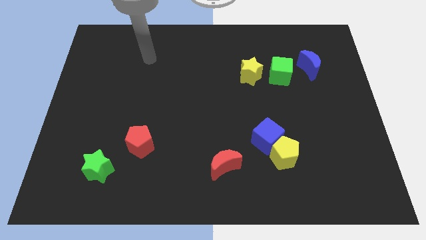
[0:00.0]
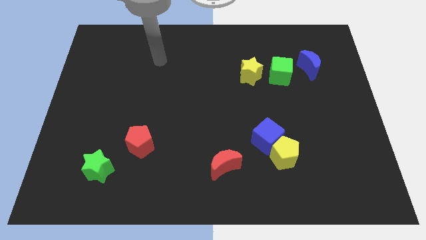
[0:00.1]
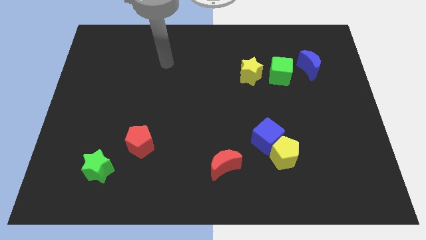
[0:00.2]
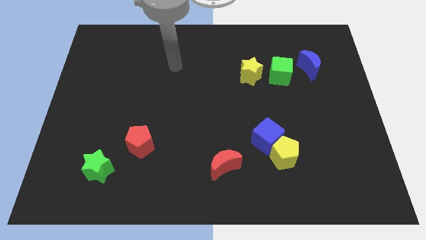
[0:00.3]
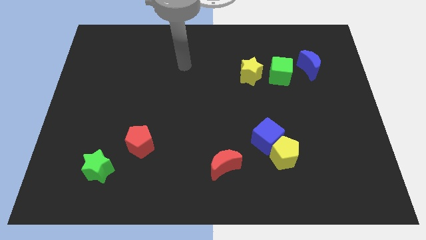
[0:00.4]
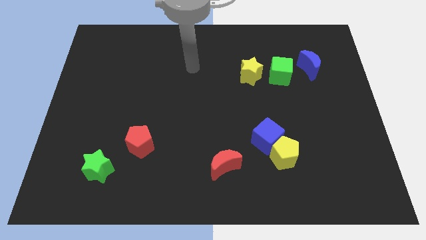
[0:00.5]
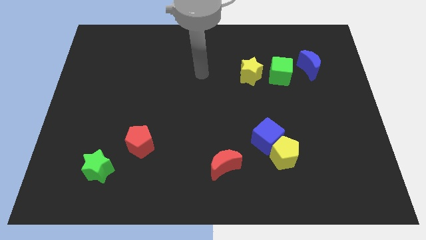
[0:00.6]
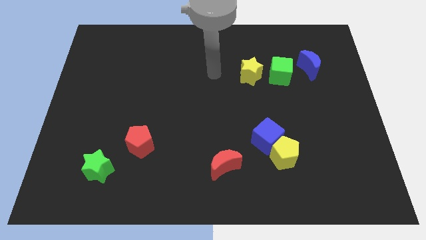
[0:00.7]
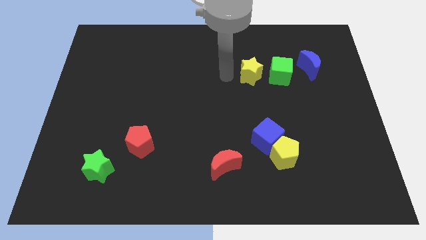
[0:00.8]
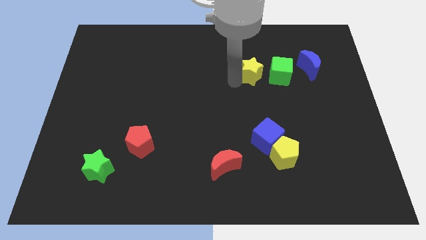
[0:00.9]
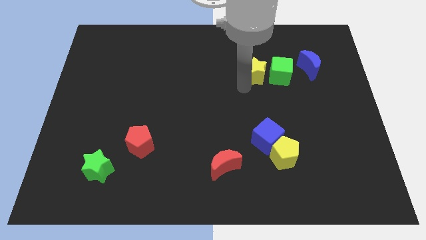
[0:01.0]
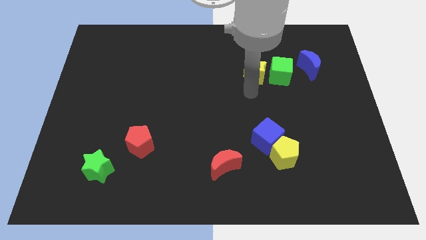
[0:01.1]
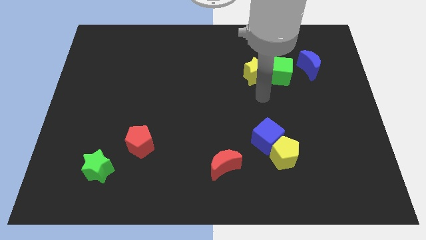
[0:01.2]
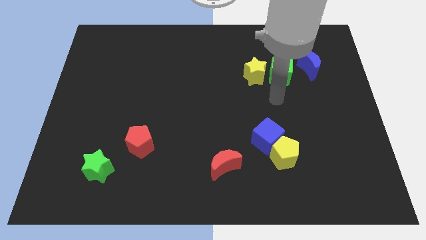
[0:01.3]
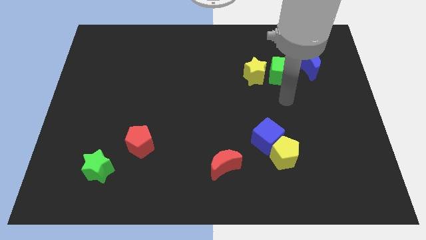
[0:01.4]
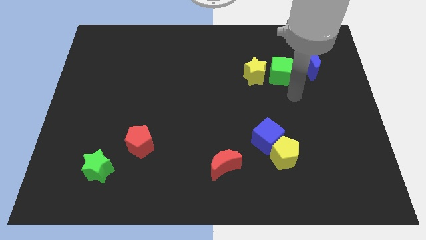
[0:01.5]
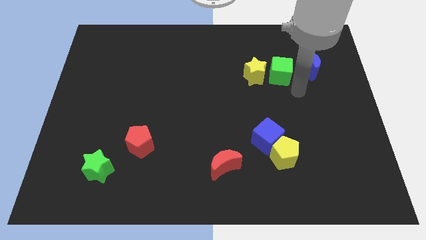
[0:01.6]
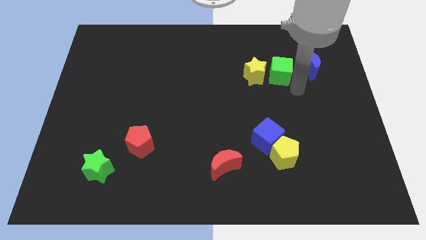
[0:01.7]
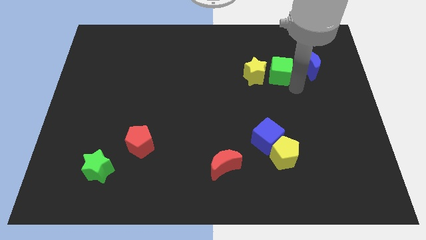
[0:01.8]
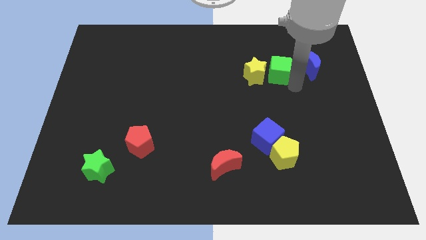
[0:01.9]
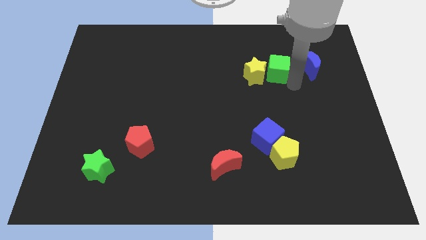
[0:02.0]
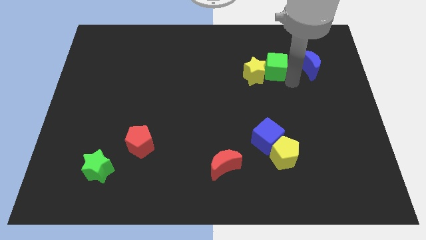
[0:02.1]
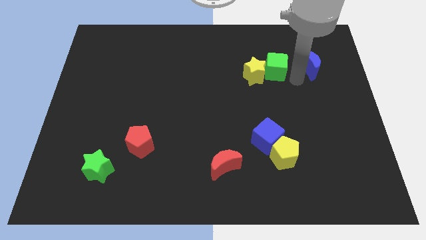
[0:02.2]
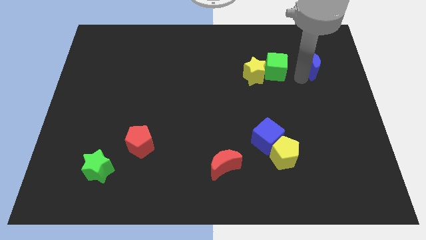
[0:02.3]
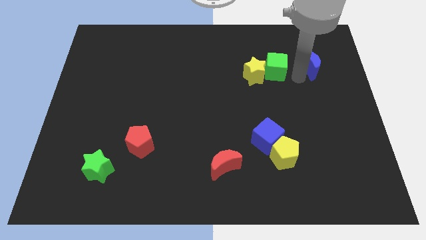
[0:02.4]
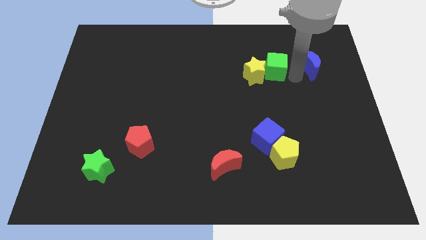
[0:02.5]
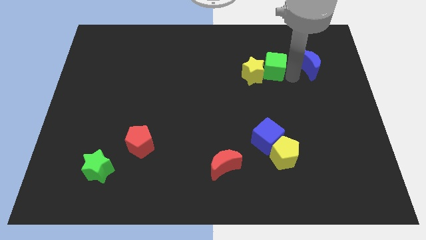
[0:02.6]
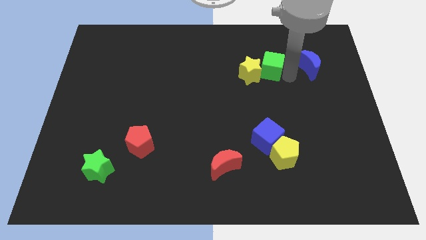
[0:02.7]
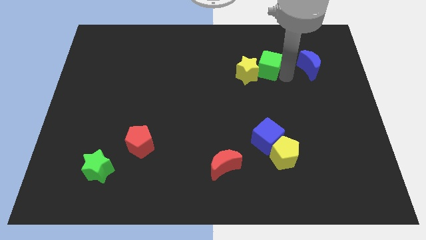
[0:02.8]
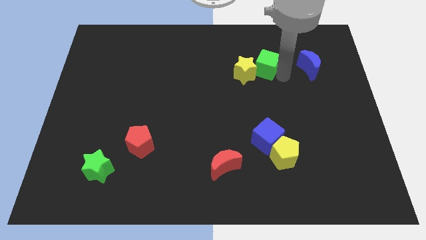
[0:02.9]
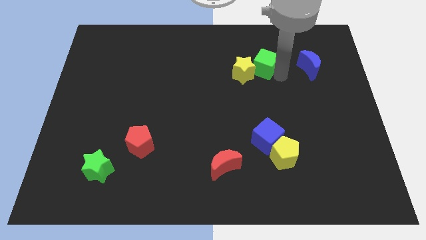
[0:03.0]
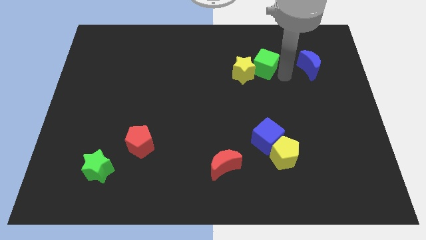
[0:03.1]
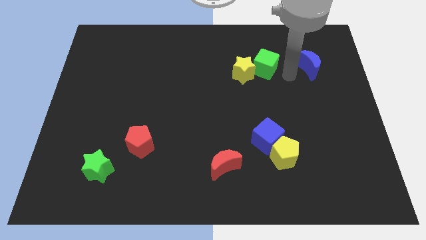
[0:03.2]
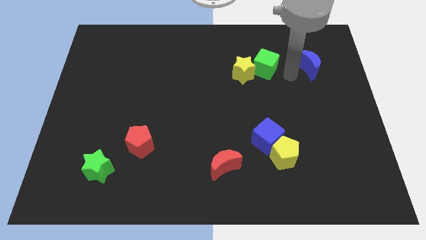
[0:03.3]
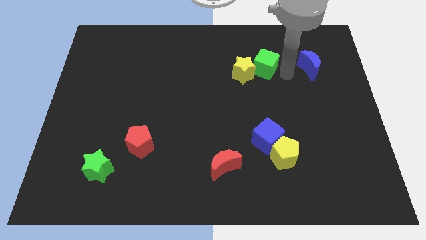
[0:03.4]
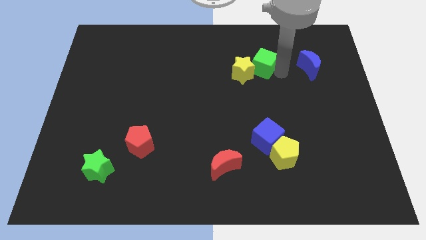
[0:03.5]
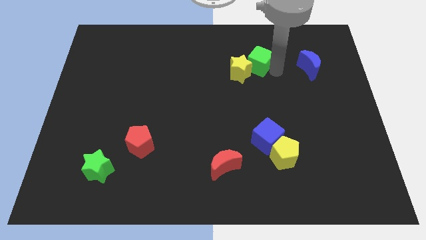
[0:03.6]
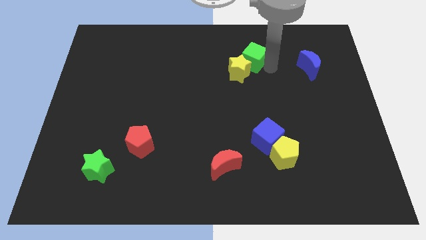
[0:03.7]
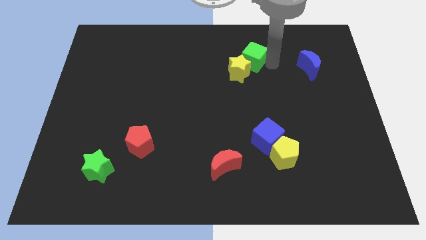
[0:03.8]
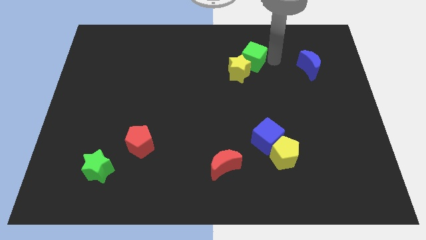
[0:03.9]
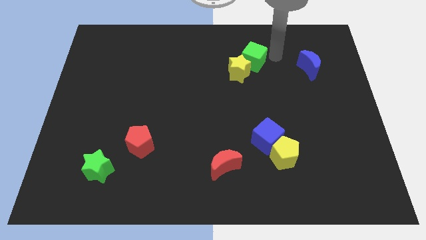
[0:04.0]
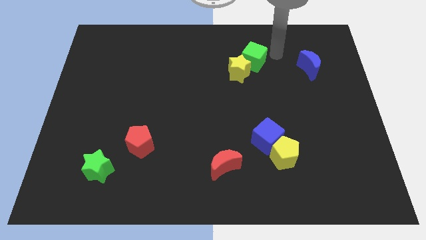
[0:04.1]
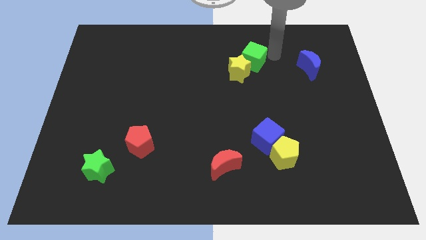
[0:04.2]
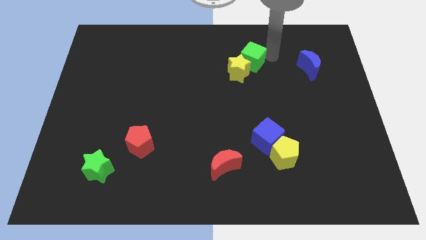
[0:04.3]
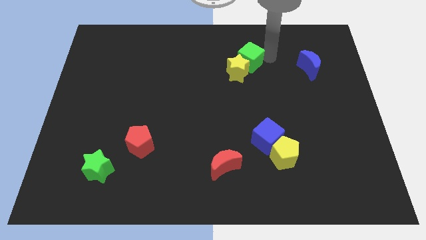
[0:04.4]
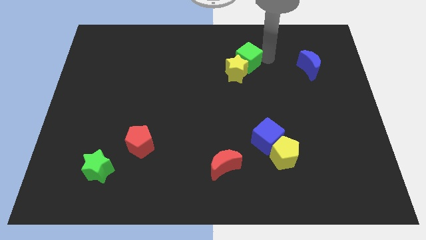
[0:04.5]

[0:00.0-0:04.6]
slightly move the green cube left

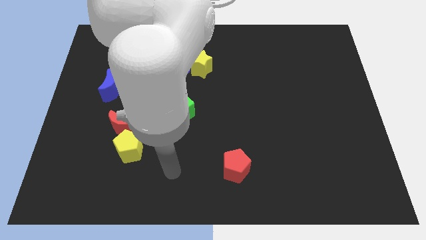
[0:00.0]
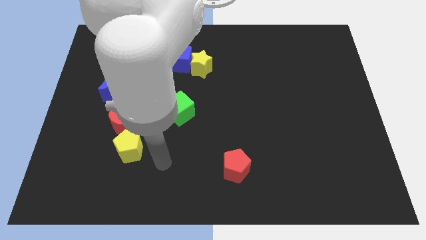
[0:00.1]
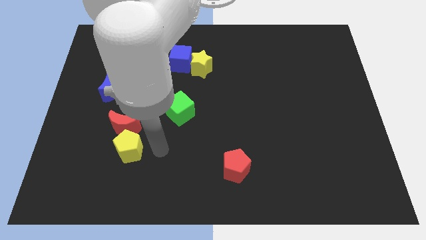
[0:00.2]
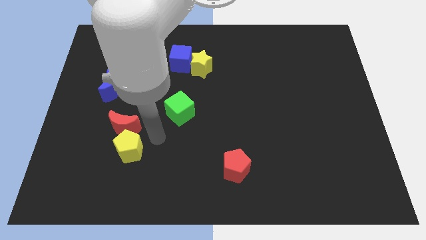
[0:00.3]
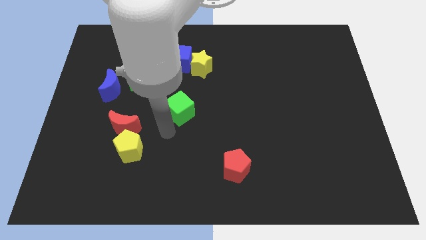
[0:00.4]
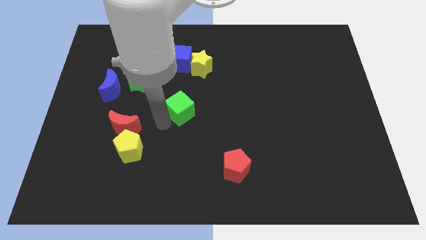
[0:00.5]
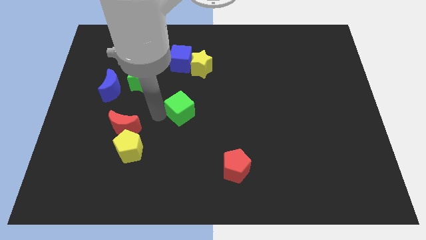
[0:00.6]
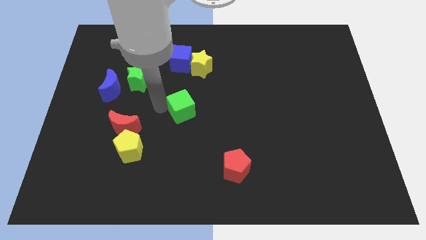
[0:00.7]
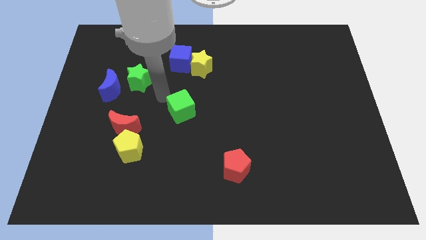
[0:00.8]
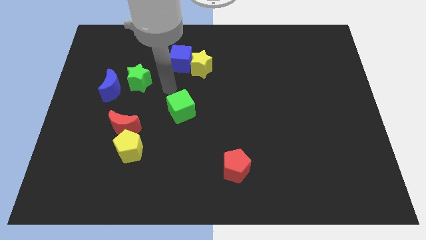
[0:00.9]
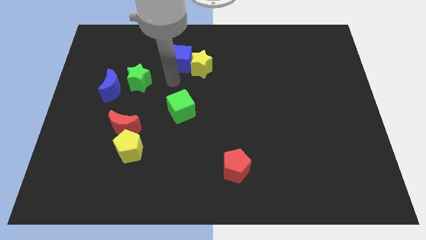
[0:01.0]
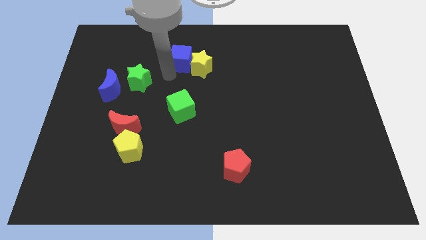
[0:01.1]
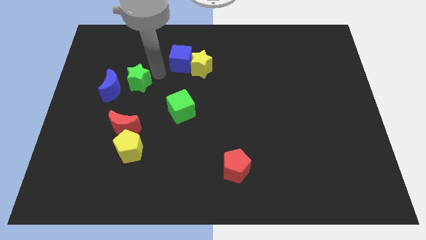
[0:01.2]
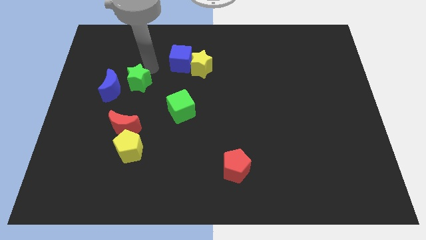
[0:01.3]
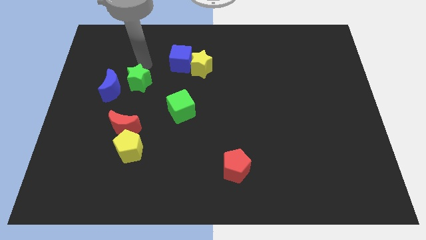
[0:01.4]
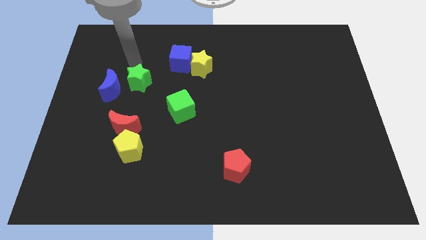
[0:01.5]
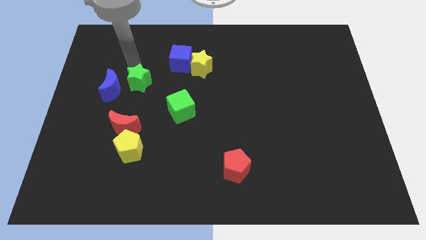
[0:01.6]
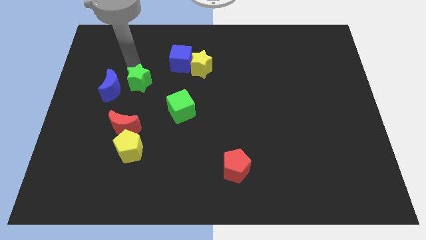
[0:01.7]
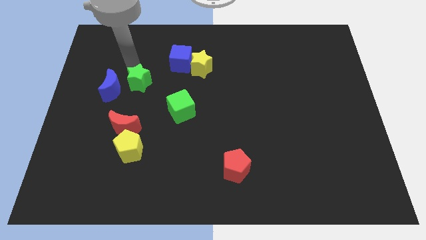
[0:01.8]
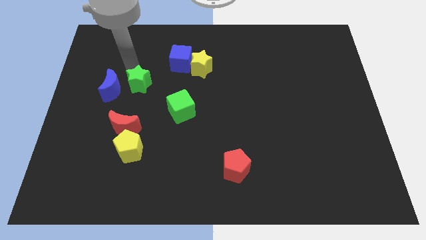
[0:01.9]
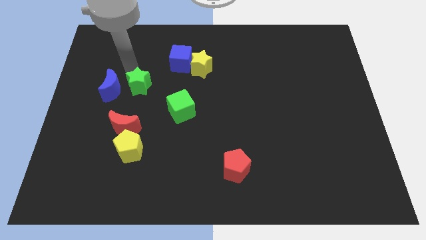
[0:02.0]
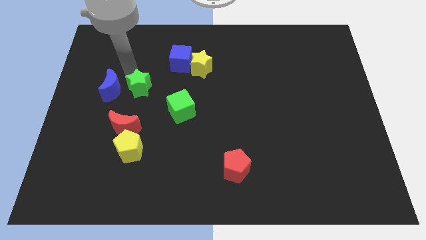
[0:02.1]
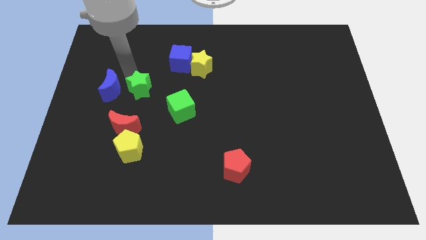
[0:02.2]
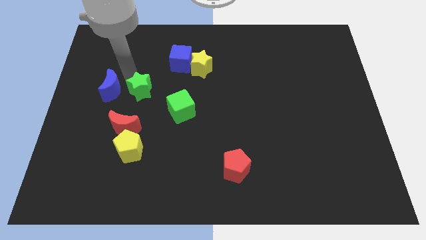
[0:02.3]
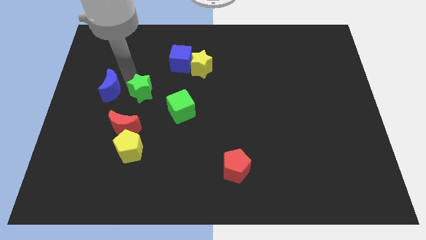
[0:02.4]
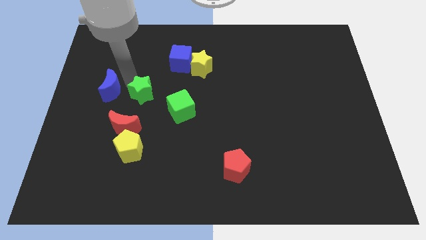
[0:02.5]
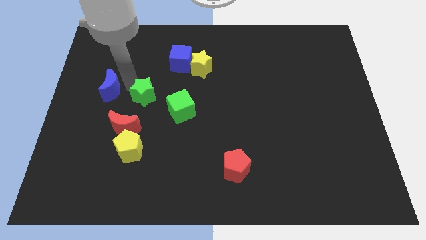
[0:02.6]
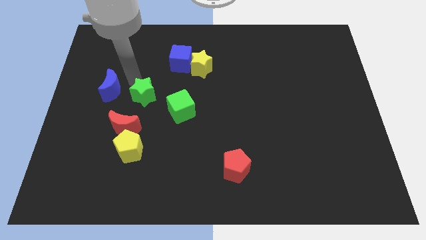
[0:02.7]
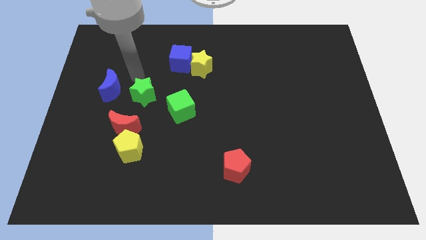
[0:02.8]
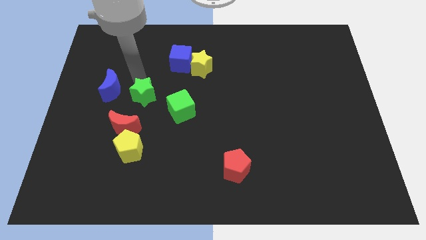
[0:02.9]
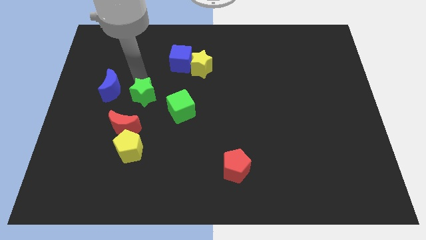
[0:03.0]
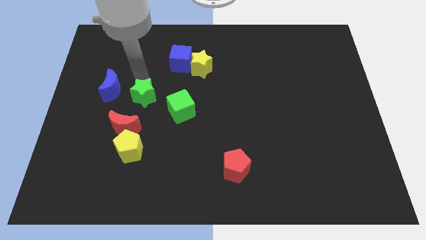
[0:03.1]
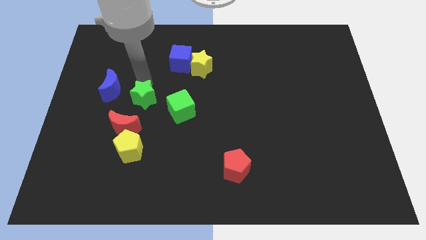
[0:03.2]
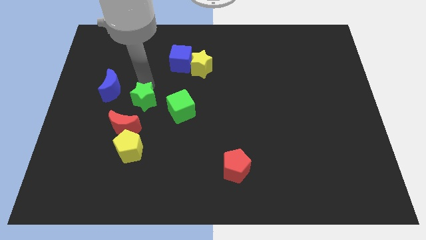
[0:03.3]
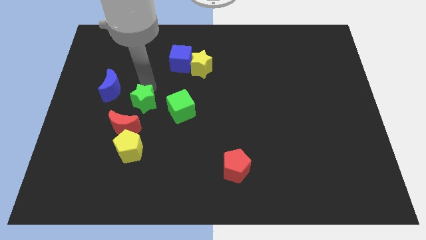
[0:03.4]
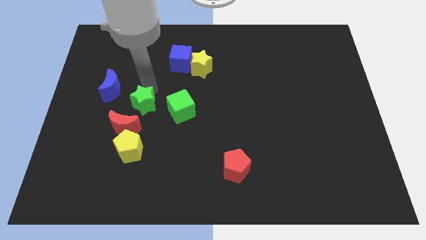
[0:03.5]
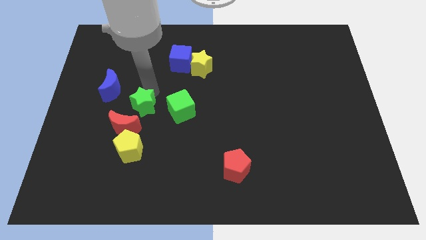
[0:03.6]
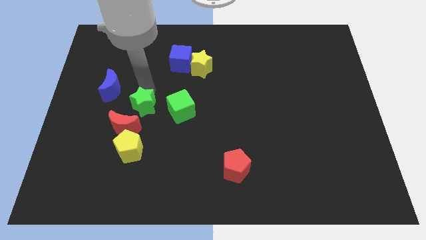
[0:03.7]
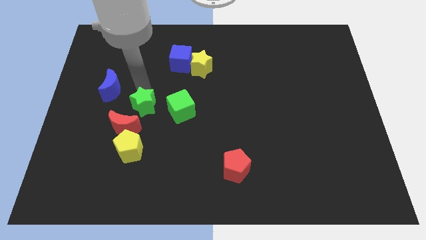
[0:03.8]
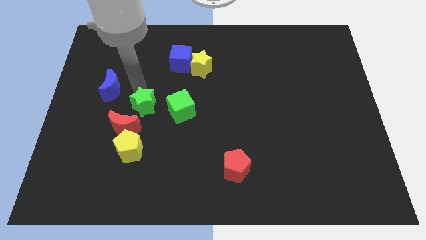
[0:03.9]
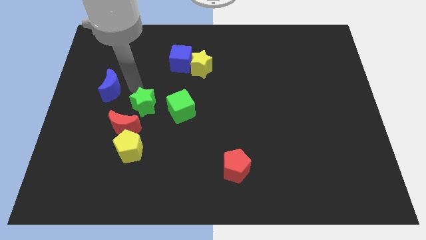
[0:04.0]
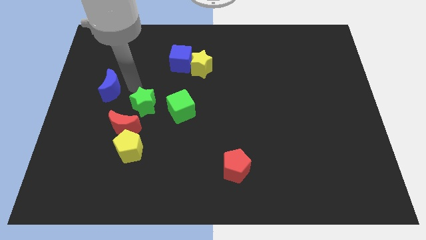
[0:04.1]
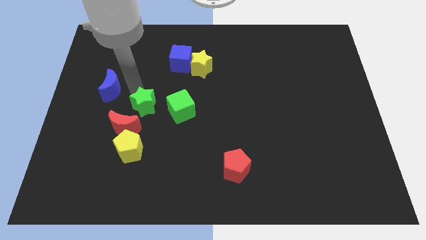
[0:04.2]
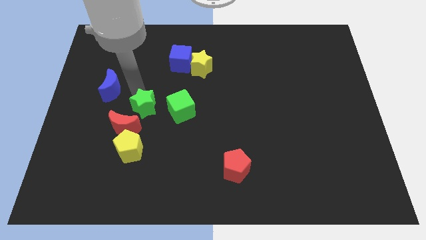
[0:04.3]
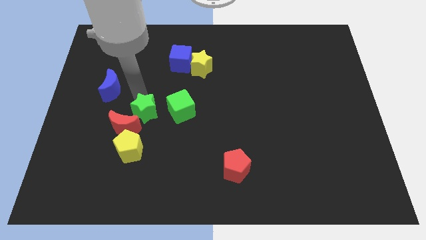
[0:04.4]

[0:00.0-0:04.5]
slide the green star diagonally down and right somewhat
